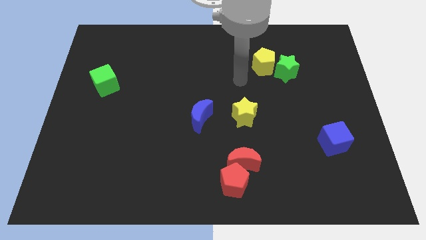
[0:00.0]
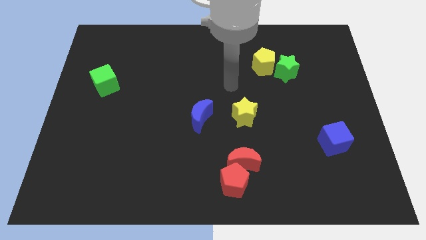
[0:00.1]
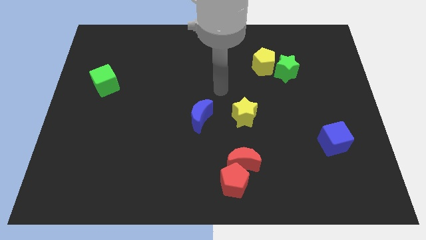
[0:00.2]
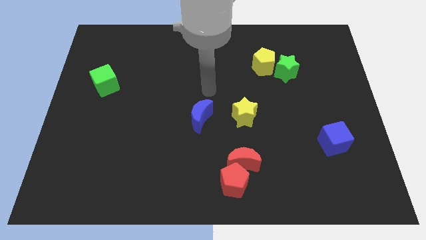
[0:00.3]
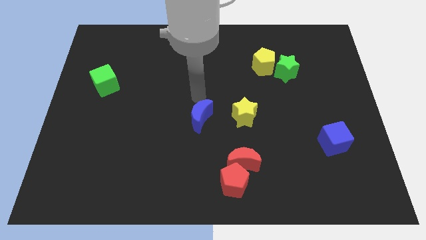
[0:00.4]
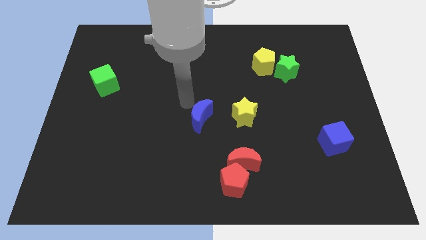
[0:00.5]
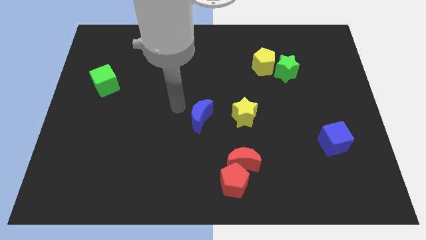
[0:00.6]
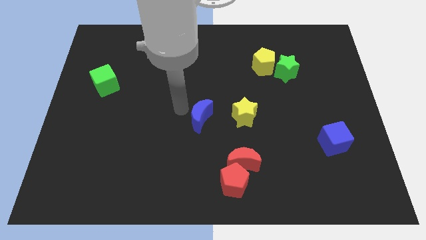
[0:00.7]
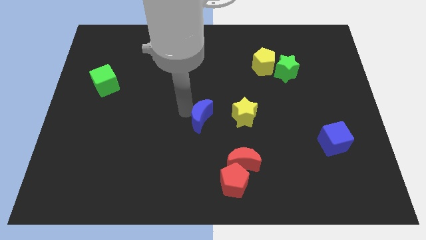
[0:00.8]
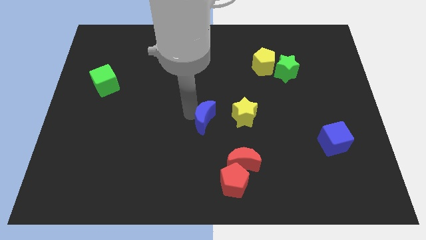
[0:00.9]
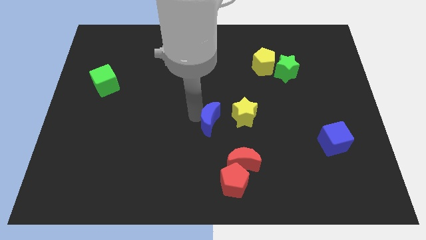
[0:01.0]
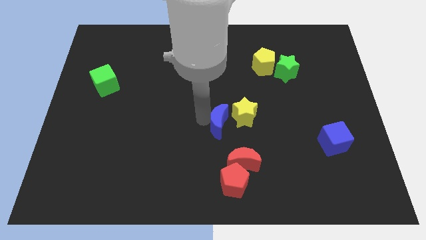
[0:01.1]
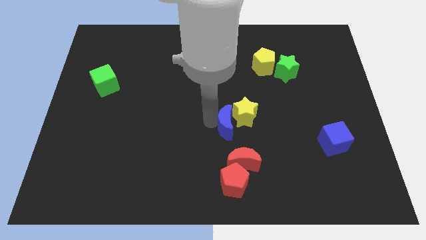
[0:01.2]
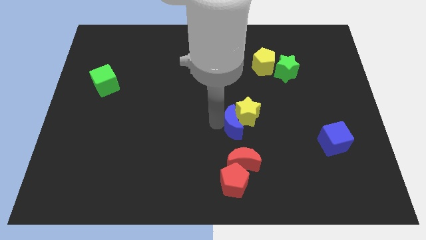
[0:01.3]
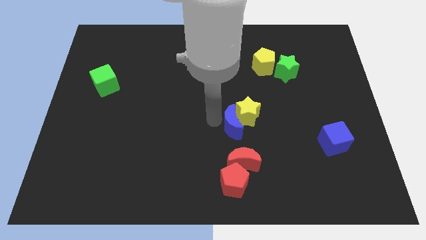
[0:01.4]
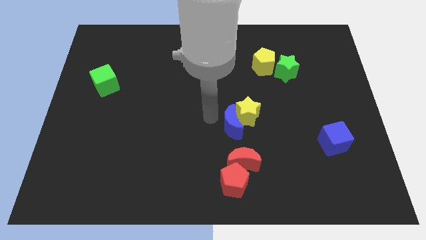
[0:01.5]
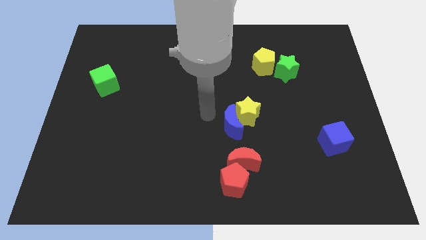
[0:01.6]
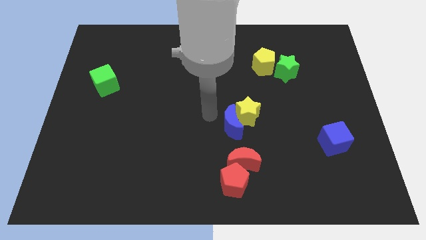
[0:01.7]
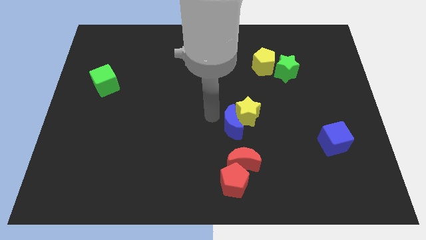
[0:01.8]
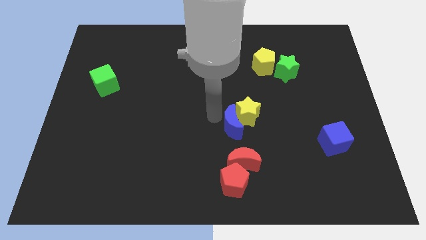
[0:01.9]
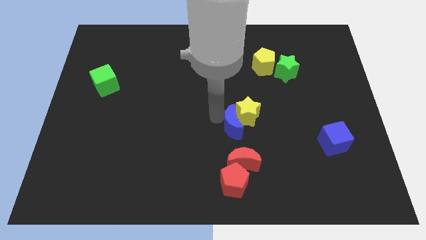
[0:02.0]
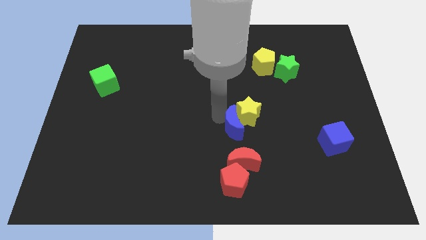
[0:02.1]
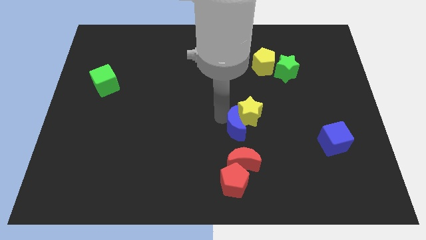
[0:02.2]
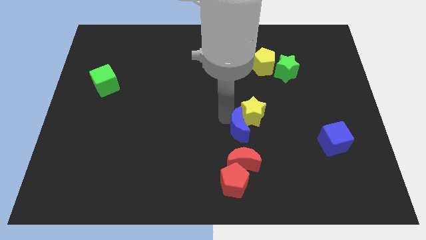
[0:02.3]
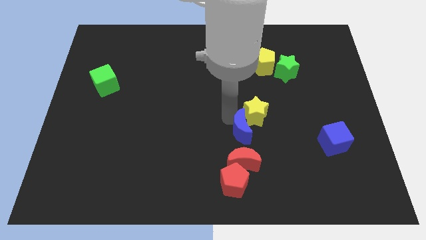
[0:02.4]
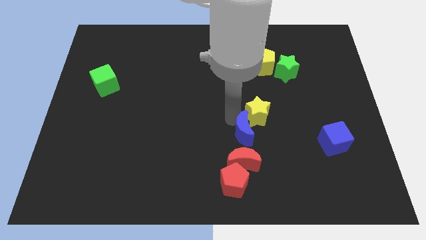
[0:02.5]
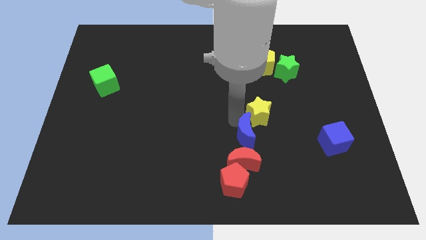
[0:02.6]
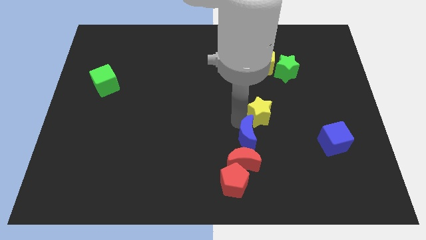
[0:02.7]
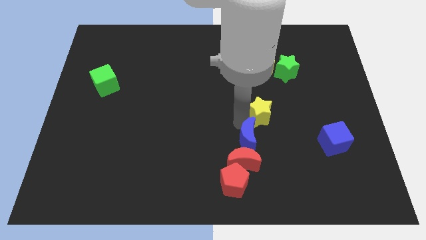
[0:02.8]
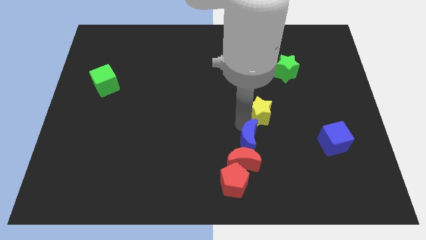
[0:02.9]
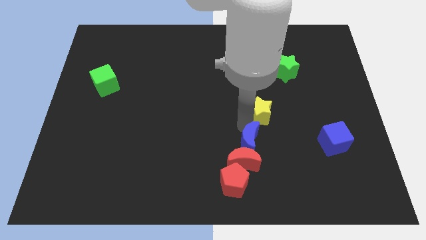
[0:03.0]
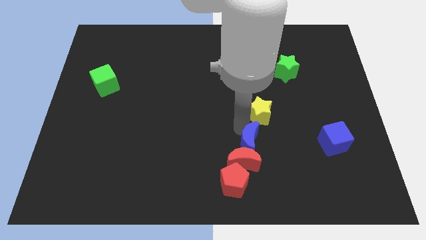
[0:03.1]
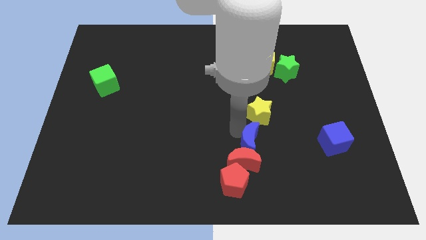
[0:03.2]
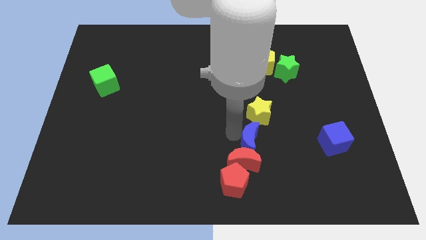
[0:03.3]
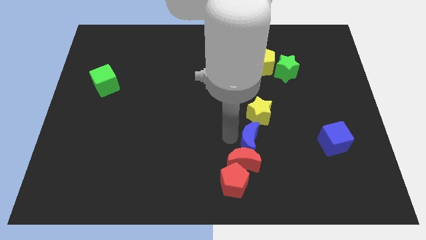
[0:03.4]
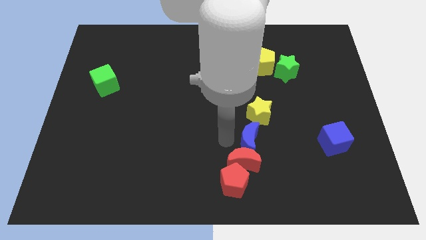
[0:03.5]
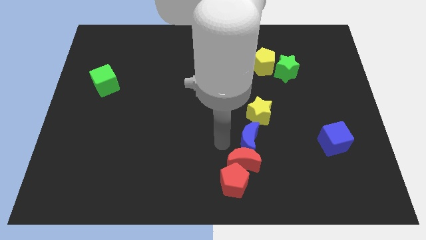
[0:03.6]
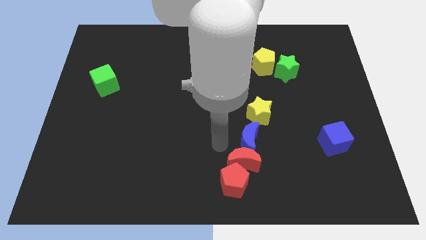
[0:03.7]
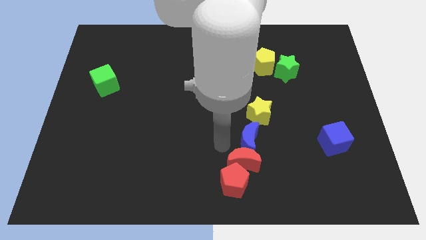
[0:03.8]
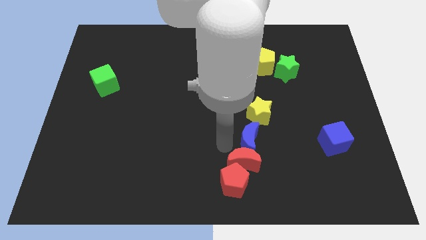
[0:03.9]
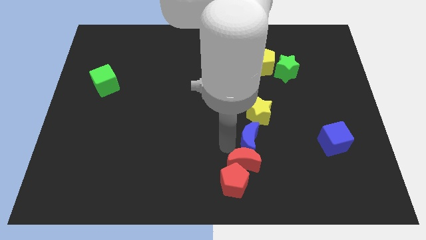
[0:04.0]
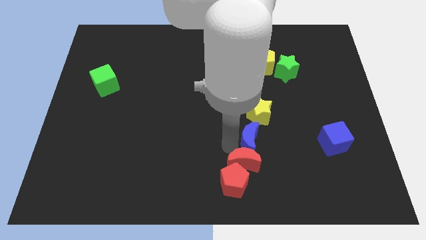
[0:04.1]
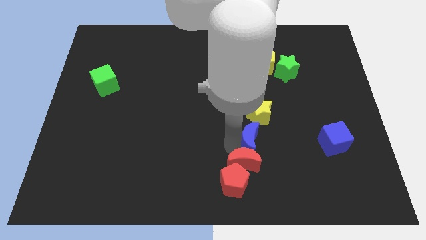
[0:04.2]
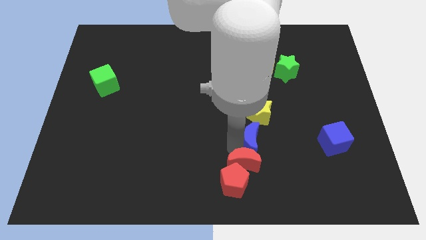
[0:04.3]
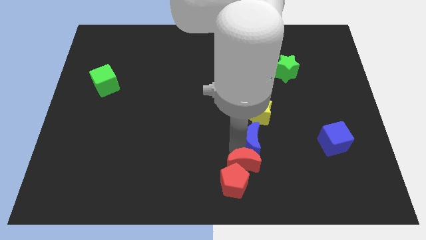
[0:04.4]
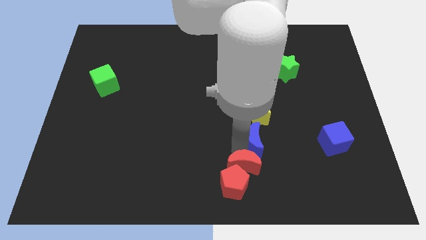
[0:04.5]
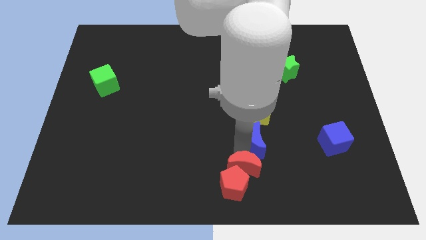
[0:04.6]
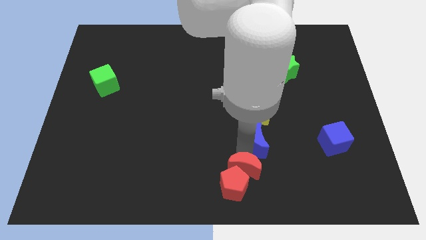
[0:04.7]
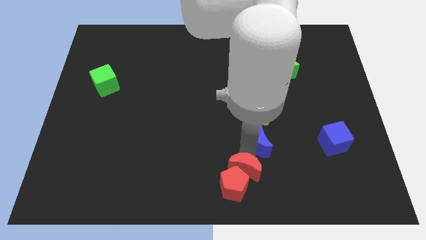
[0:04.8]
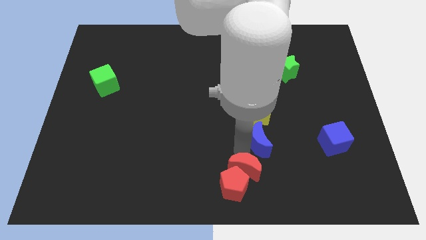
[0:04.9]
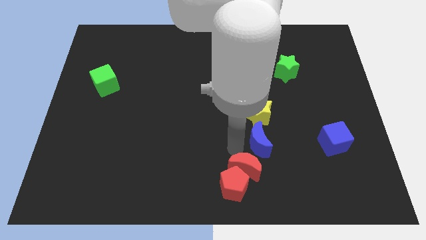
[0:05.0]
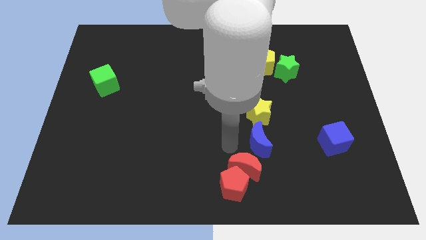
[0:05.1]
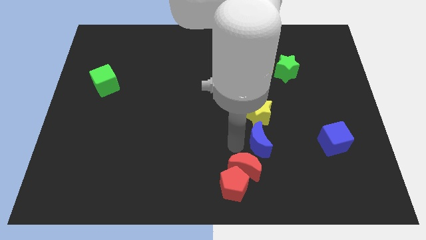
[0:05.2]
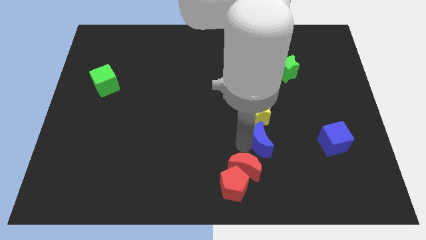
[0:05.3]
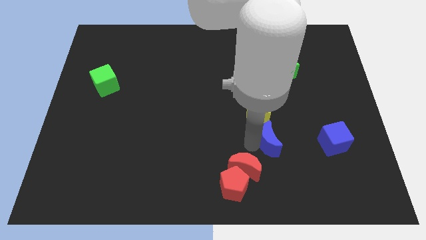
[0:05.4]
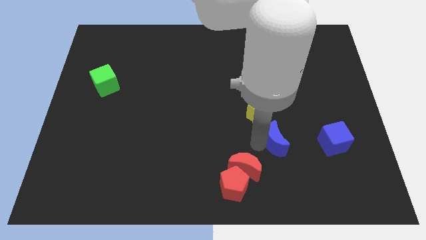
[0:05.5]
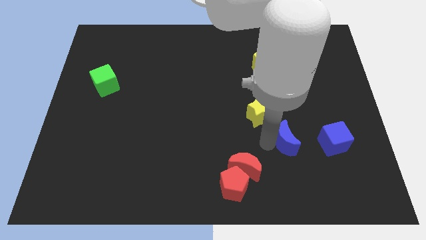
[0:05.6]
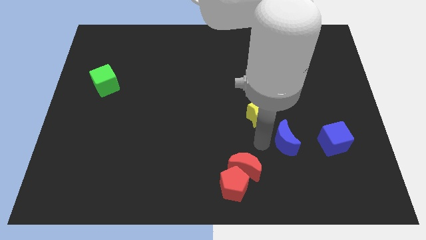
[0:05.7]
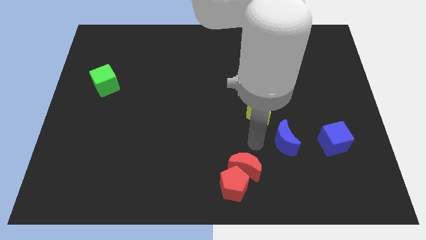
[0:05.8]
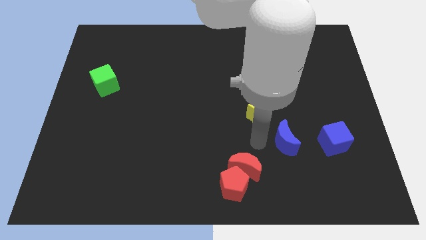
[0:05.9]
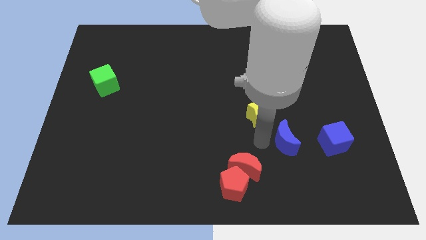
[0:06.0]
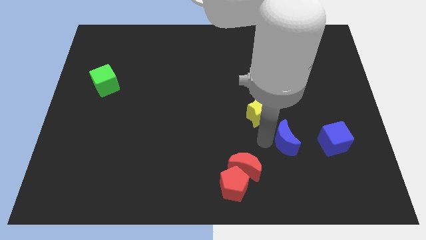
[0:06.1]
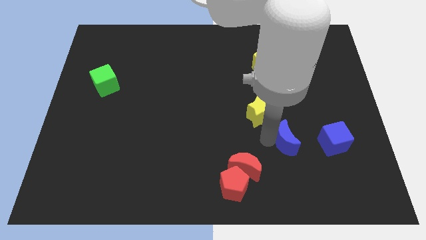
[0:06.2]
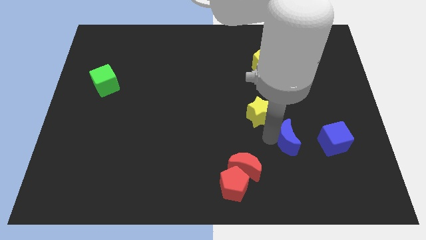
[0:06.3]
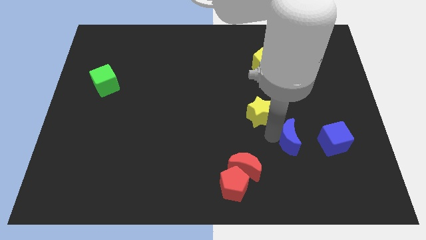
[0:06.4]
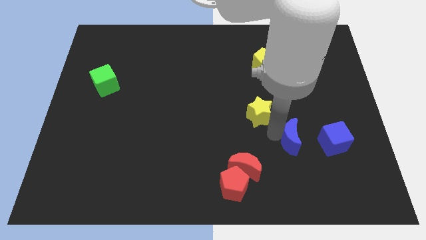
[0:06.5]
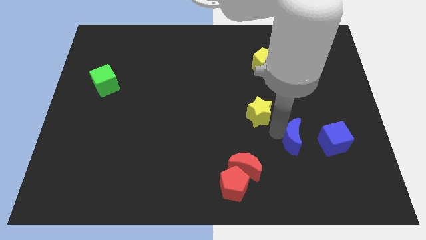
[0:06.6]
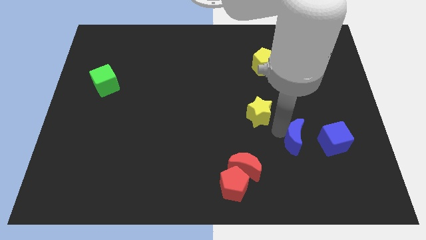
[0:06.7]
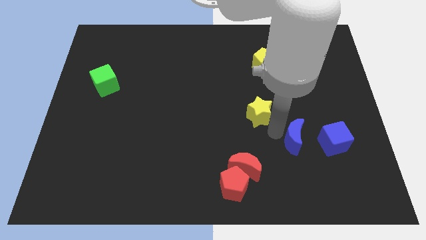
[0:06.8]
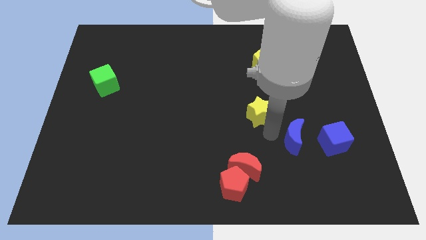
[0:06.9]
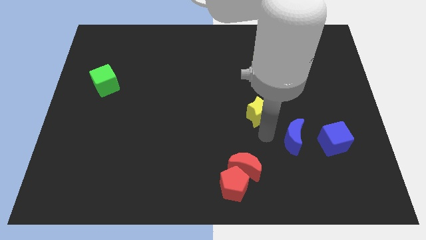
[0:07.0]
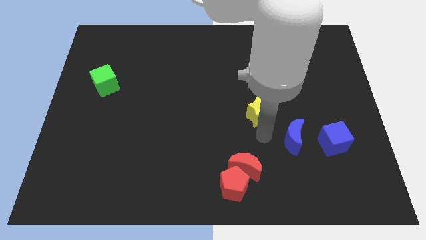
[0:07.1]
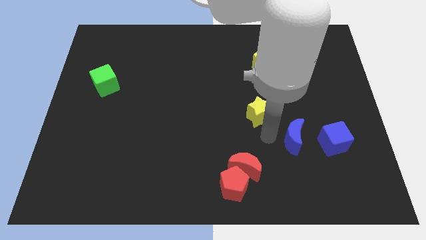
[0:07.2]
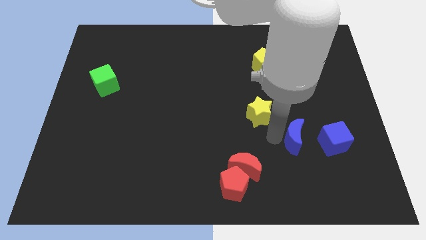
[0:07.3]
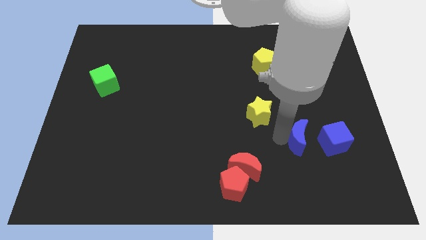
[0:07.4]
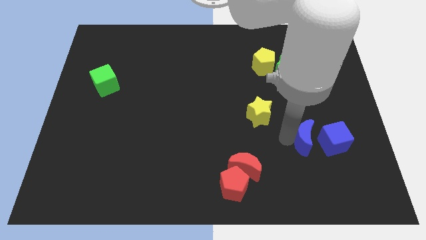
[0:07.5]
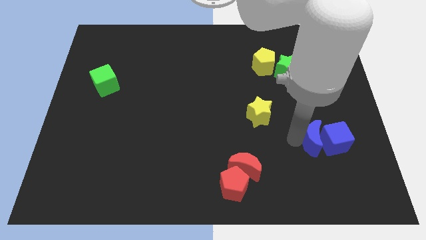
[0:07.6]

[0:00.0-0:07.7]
put the blue moon to the blue cube
